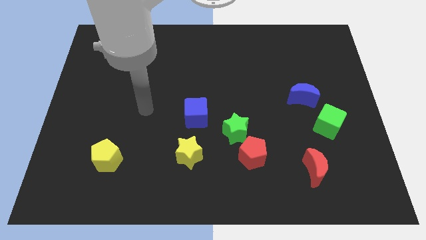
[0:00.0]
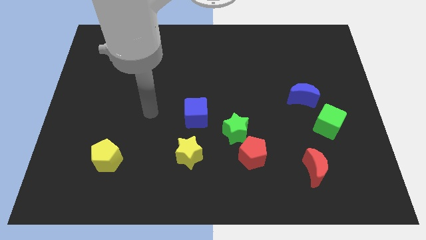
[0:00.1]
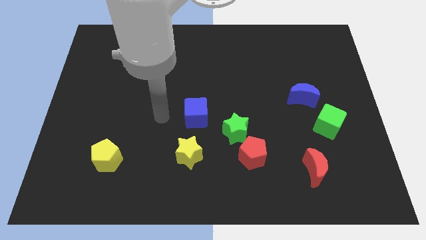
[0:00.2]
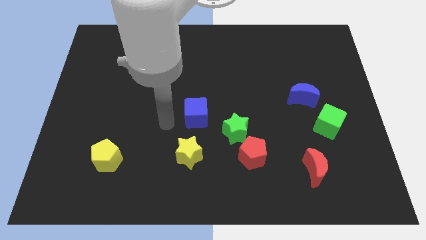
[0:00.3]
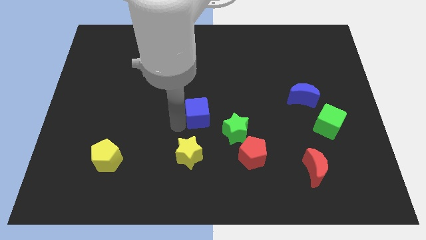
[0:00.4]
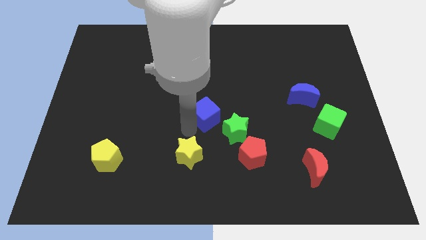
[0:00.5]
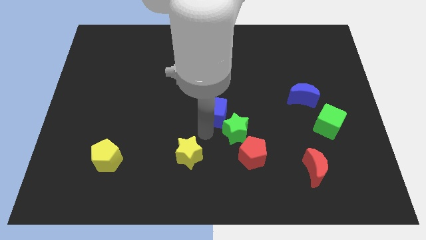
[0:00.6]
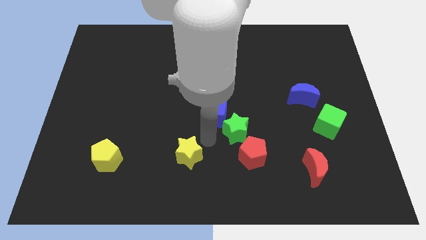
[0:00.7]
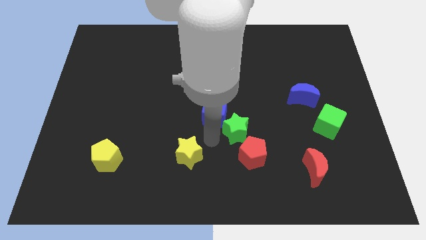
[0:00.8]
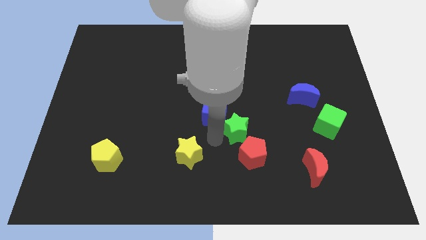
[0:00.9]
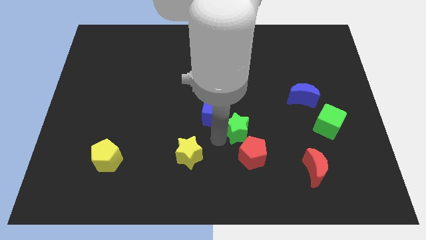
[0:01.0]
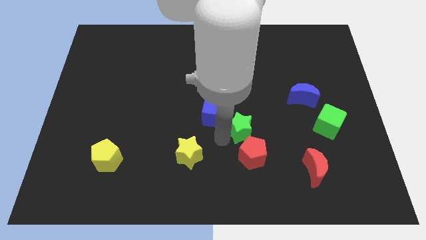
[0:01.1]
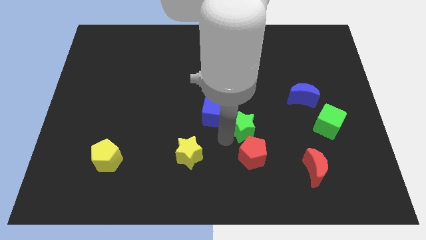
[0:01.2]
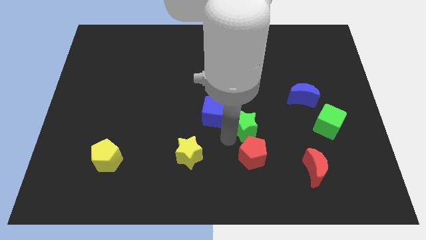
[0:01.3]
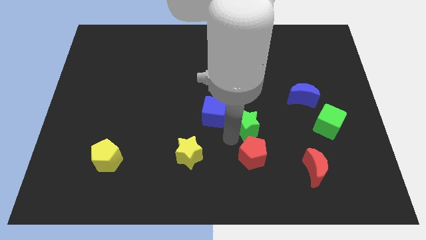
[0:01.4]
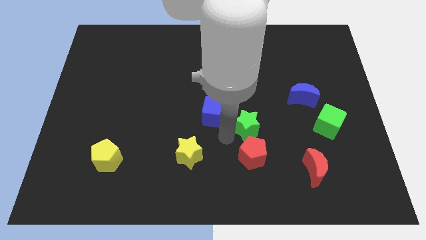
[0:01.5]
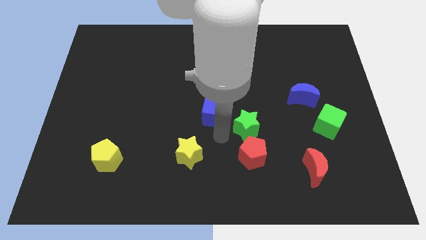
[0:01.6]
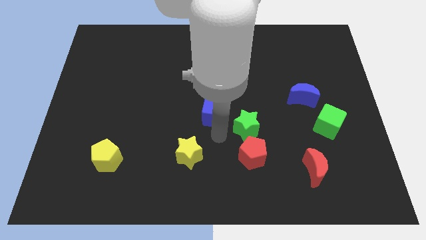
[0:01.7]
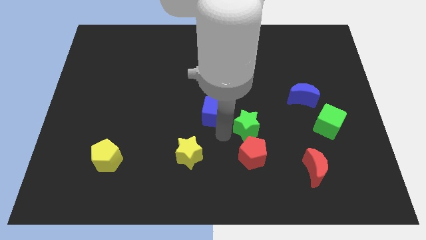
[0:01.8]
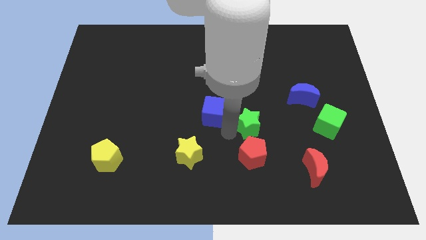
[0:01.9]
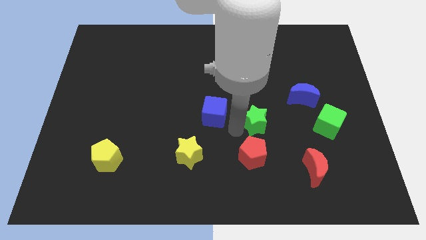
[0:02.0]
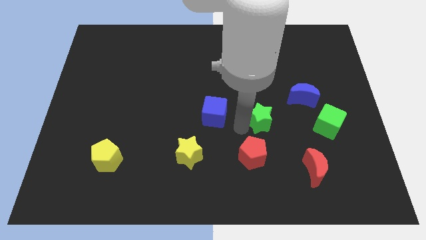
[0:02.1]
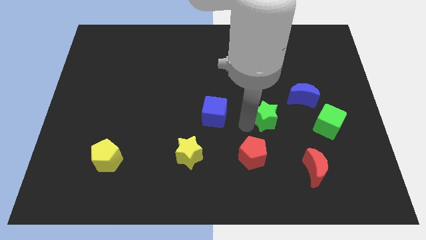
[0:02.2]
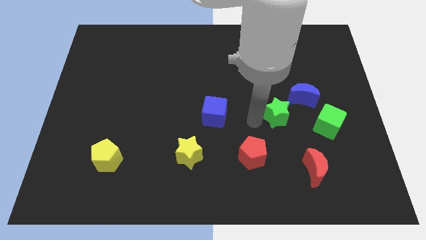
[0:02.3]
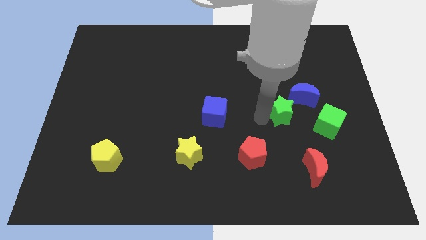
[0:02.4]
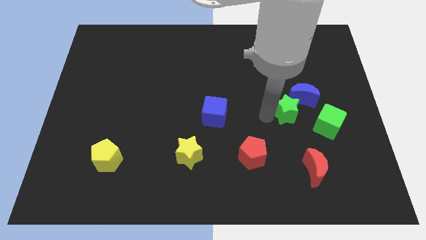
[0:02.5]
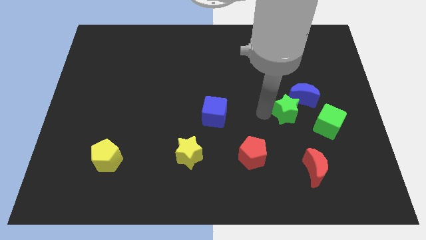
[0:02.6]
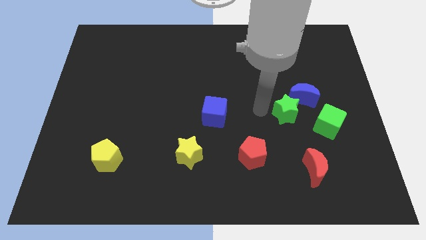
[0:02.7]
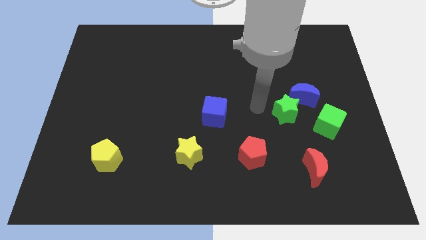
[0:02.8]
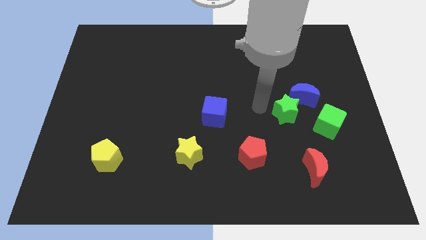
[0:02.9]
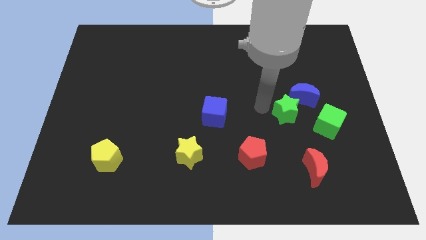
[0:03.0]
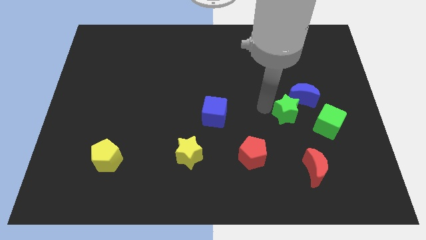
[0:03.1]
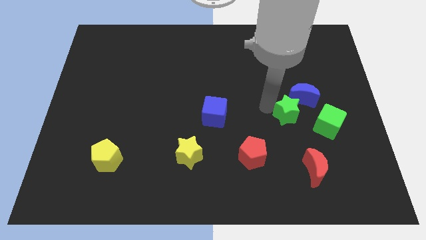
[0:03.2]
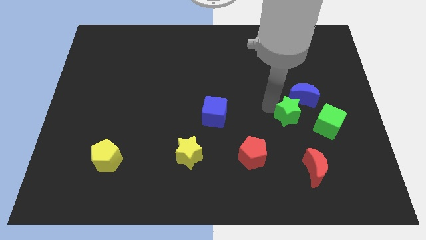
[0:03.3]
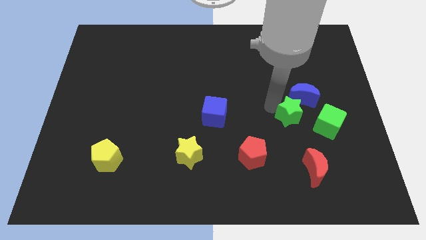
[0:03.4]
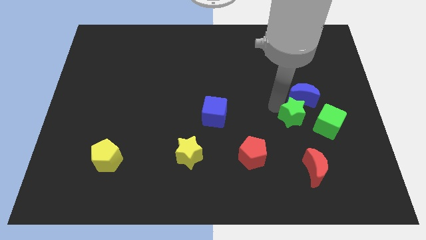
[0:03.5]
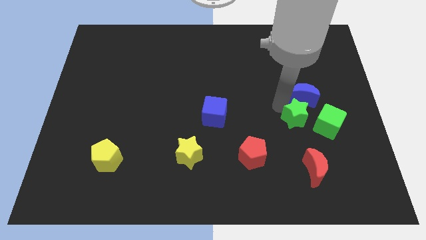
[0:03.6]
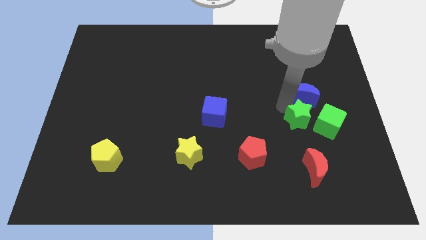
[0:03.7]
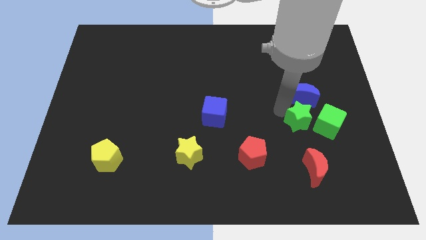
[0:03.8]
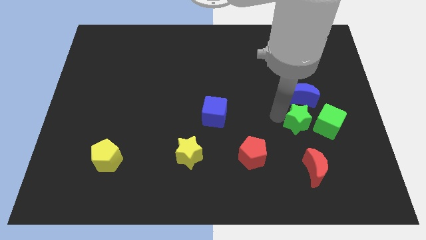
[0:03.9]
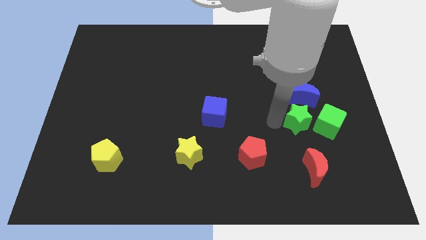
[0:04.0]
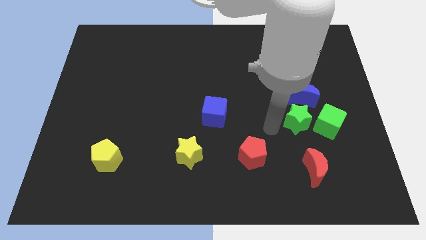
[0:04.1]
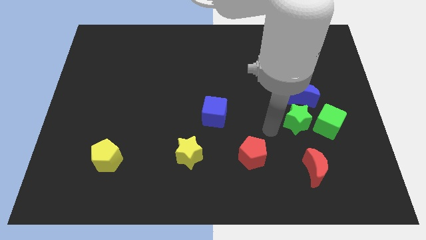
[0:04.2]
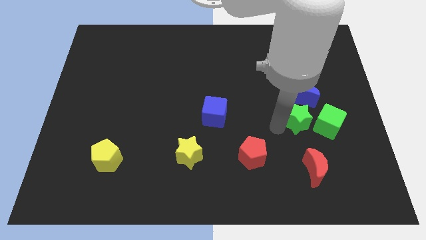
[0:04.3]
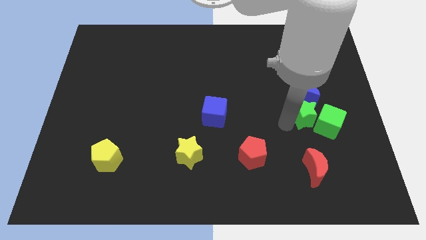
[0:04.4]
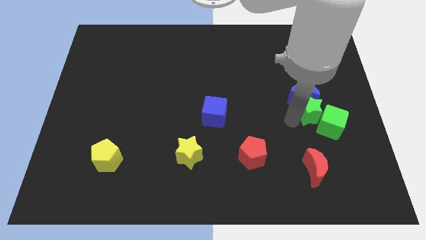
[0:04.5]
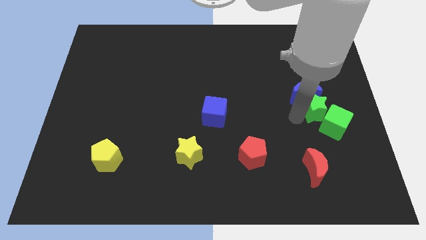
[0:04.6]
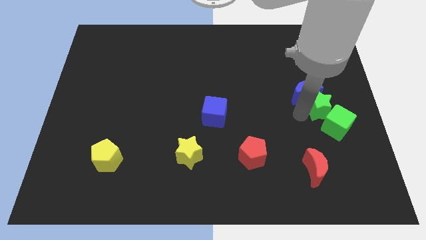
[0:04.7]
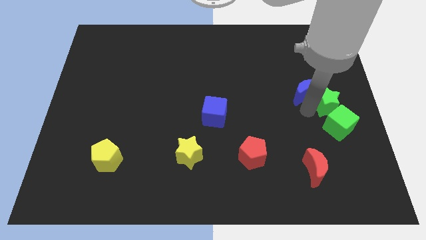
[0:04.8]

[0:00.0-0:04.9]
slide the green star to the right side of the board

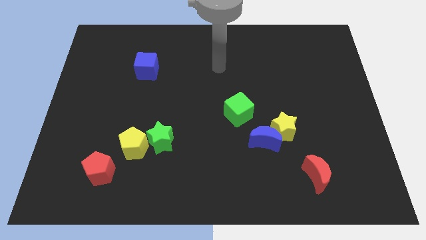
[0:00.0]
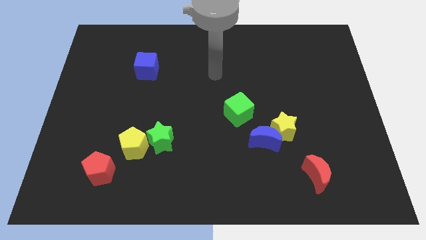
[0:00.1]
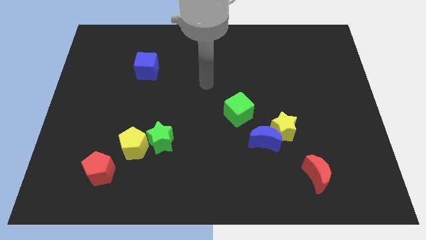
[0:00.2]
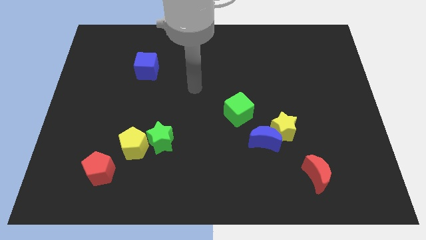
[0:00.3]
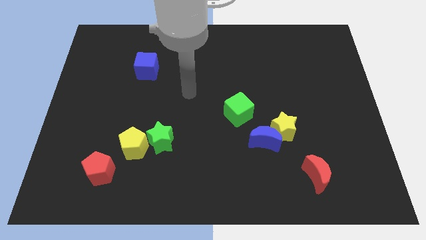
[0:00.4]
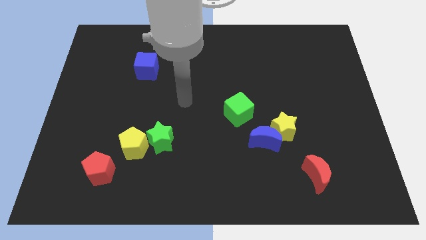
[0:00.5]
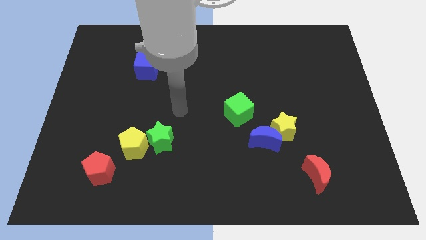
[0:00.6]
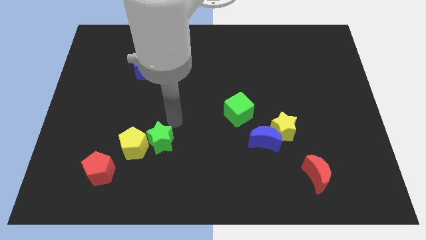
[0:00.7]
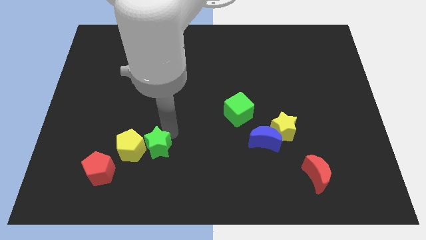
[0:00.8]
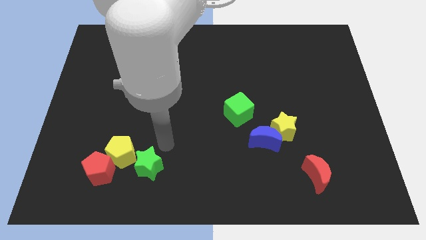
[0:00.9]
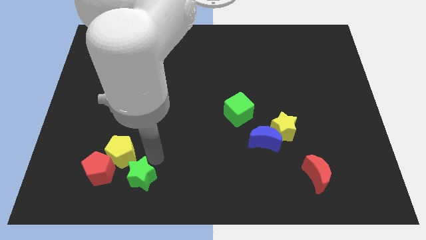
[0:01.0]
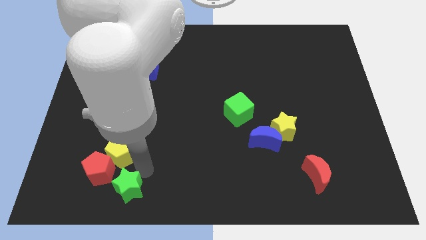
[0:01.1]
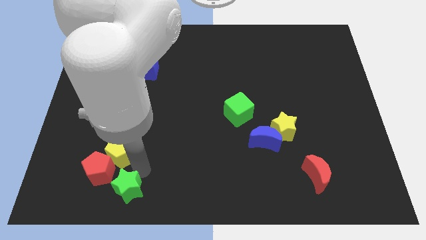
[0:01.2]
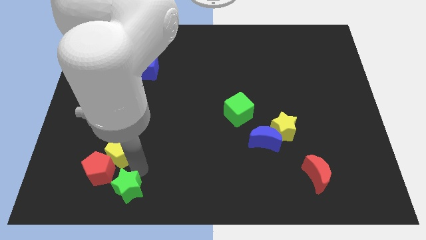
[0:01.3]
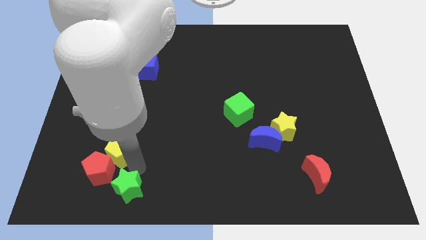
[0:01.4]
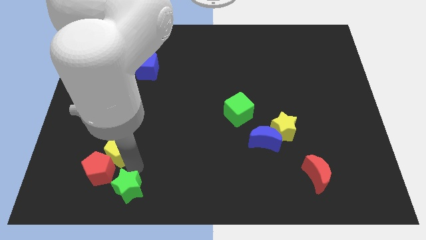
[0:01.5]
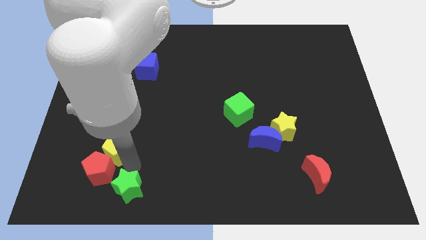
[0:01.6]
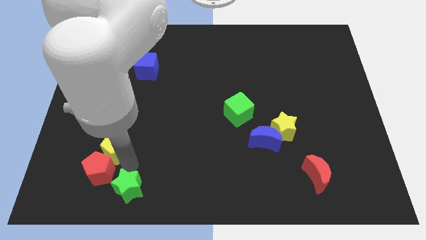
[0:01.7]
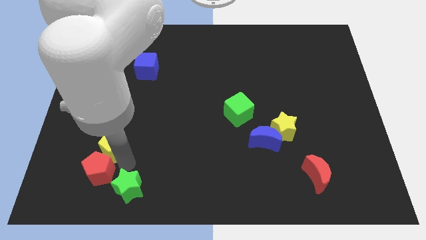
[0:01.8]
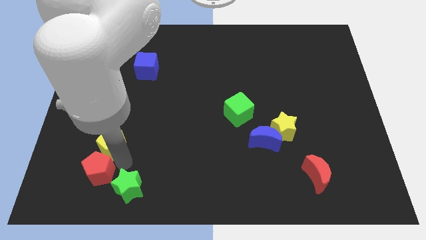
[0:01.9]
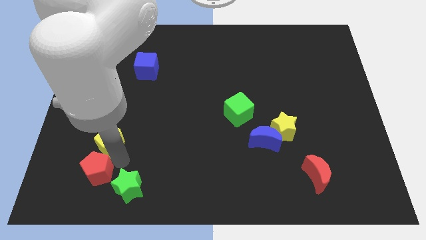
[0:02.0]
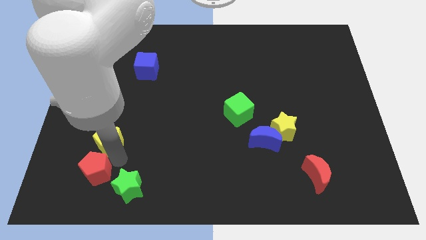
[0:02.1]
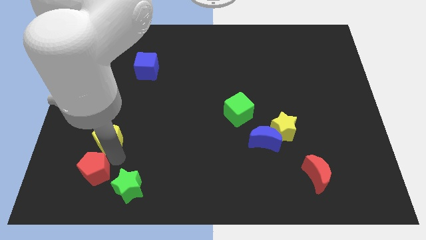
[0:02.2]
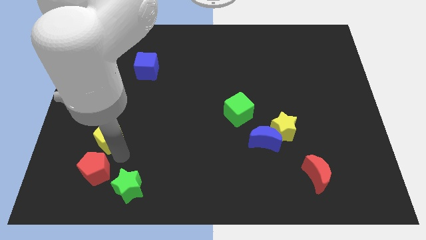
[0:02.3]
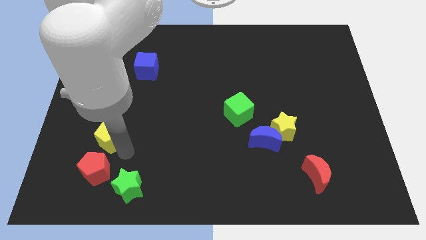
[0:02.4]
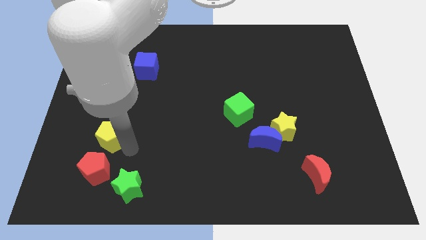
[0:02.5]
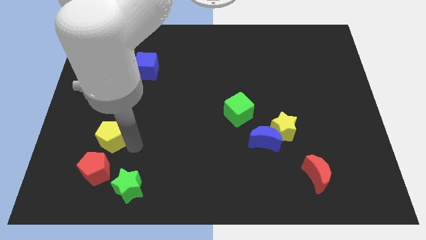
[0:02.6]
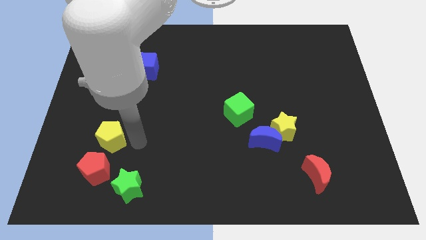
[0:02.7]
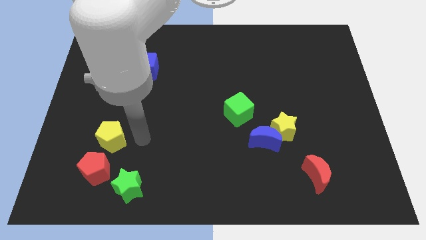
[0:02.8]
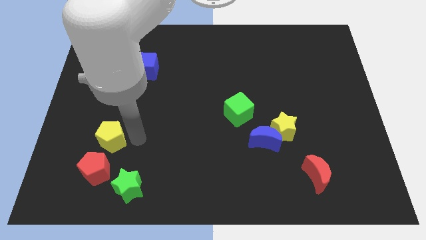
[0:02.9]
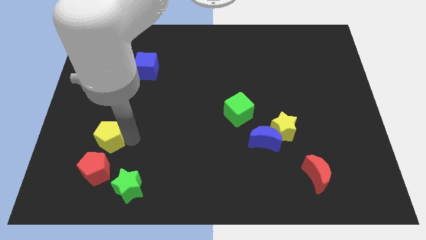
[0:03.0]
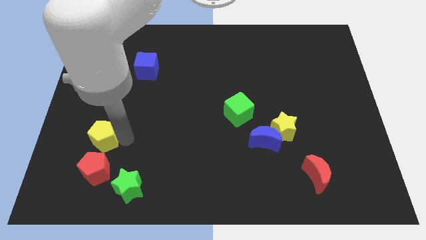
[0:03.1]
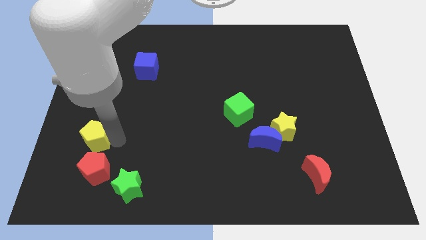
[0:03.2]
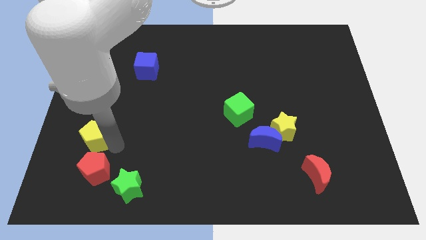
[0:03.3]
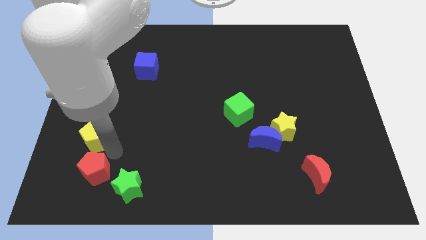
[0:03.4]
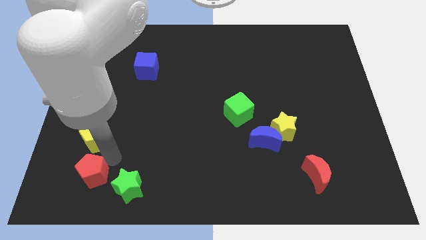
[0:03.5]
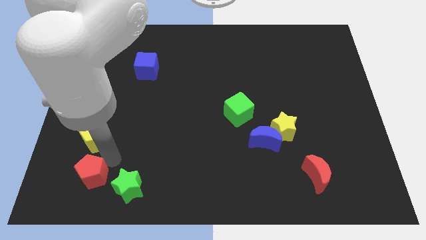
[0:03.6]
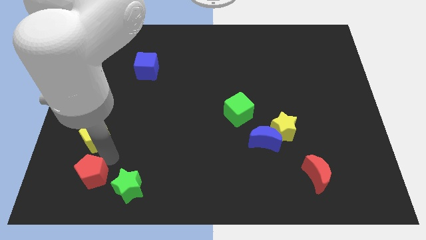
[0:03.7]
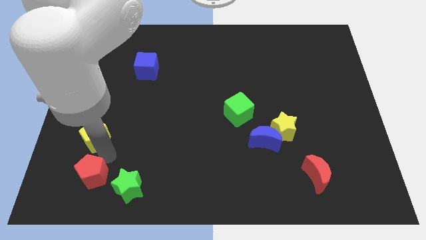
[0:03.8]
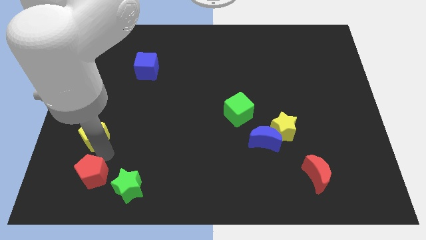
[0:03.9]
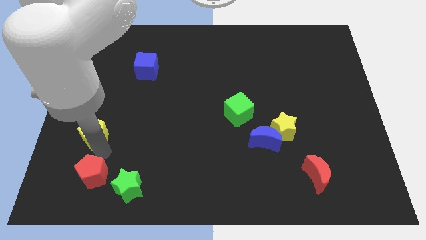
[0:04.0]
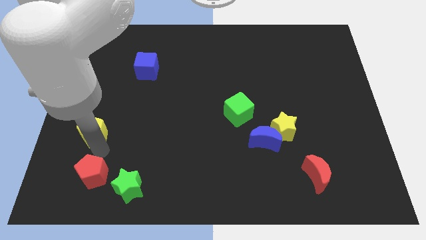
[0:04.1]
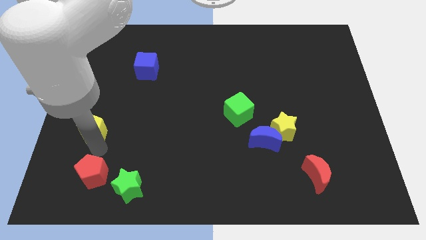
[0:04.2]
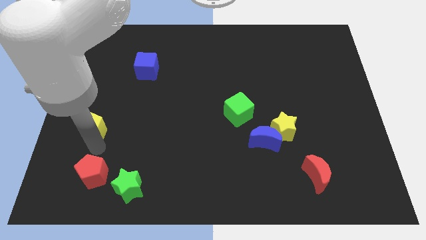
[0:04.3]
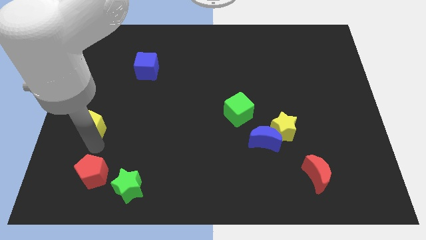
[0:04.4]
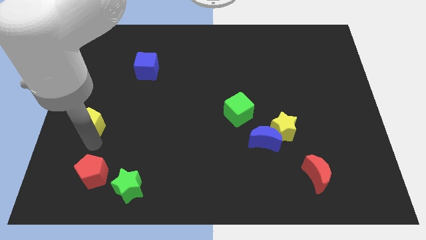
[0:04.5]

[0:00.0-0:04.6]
put the yellow pentagon to the left side
